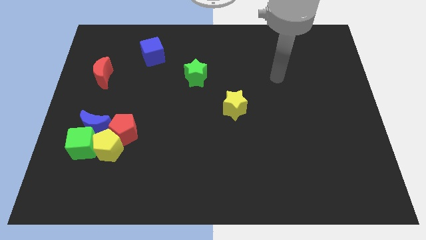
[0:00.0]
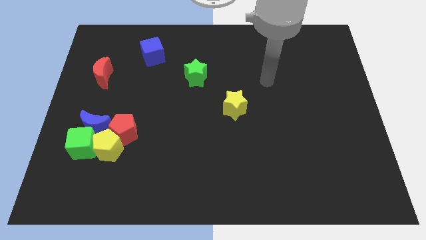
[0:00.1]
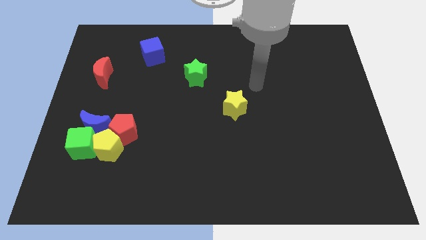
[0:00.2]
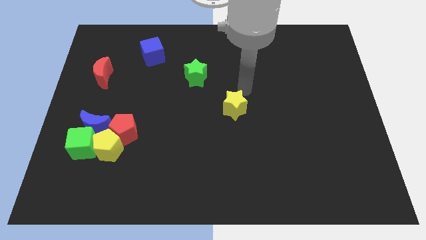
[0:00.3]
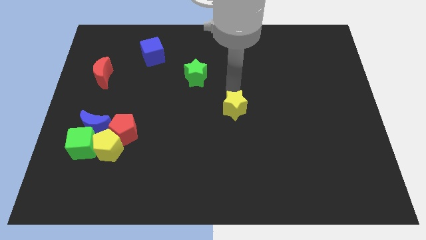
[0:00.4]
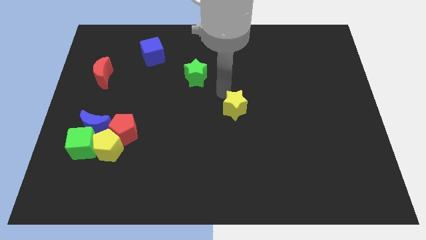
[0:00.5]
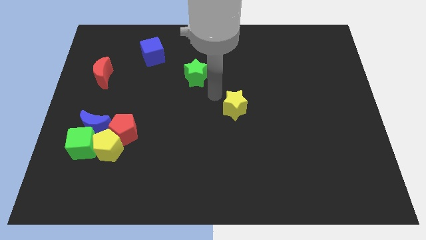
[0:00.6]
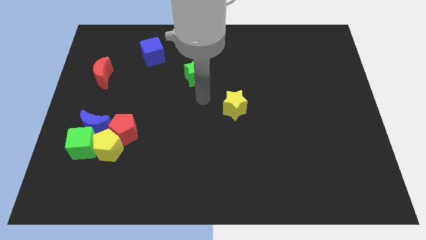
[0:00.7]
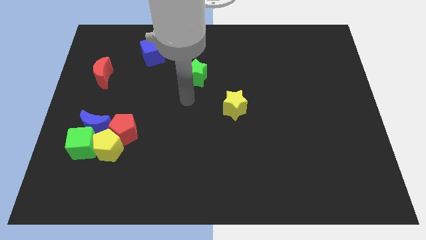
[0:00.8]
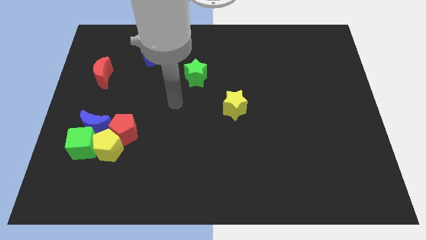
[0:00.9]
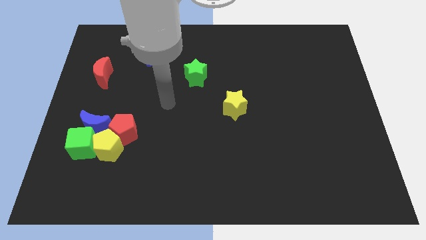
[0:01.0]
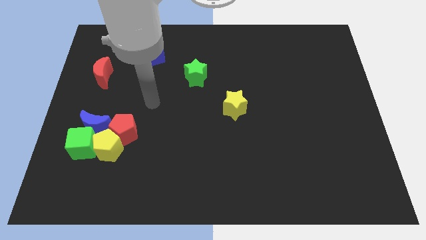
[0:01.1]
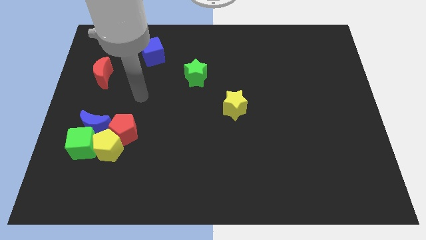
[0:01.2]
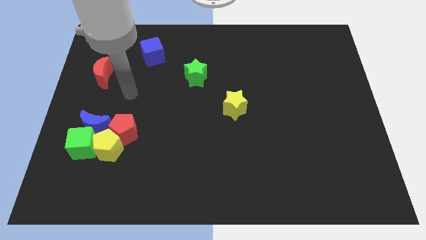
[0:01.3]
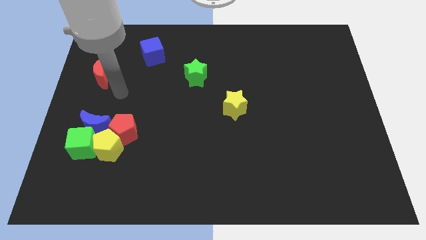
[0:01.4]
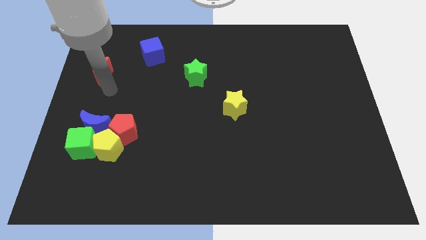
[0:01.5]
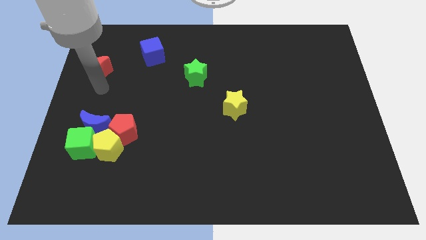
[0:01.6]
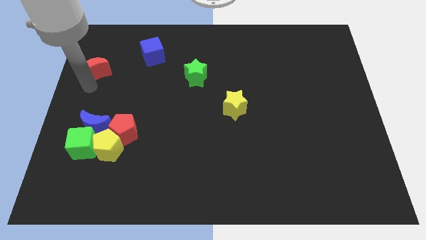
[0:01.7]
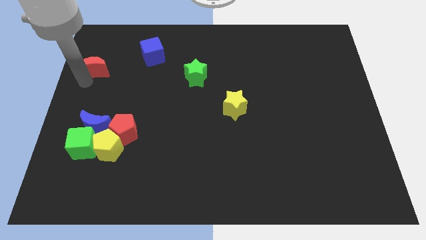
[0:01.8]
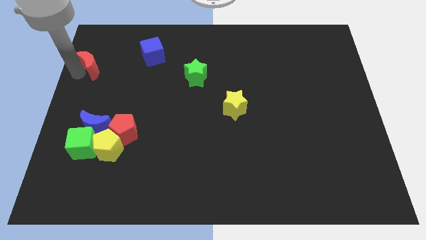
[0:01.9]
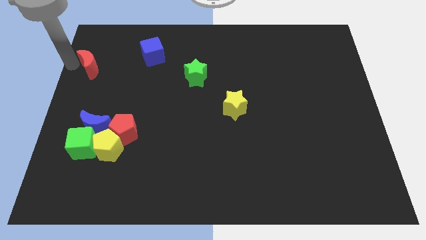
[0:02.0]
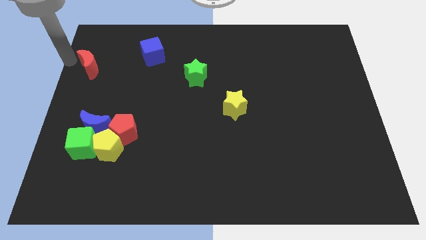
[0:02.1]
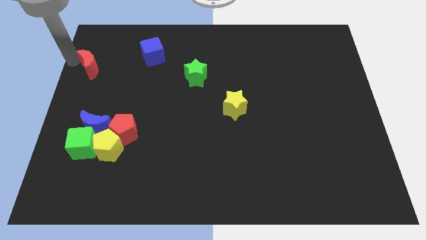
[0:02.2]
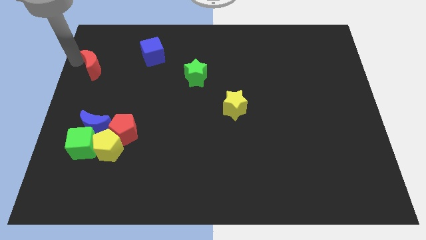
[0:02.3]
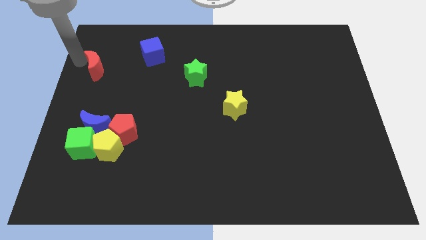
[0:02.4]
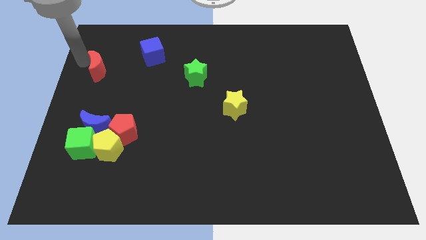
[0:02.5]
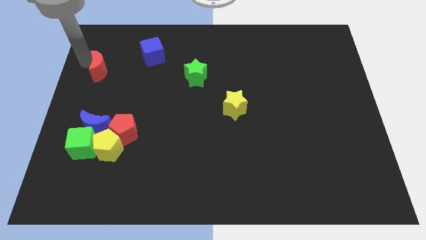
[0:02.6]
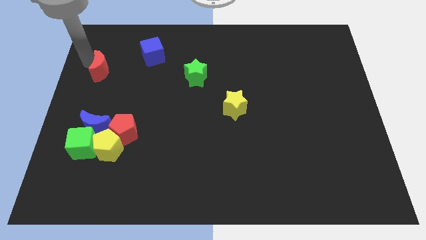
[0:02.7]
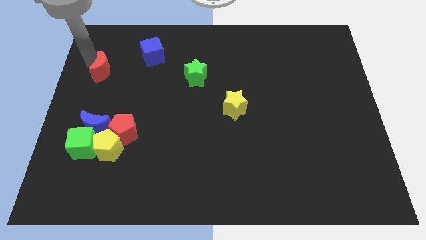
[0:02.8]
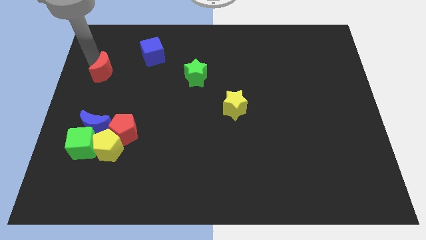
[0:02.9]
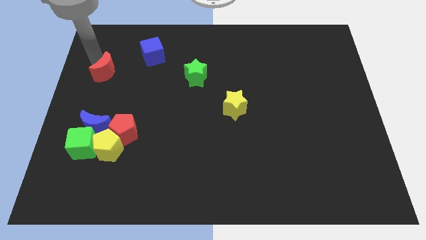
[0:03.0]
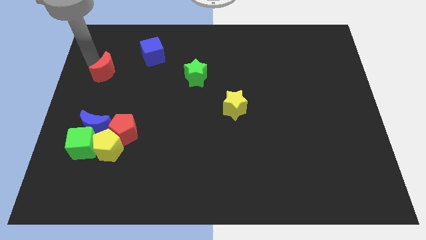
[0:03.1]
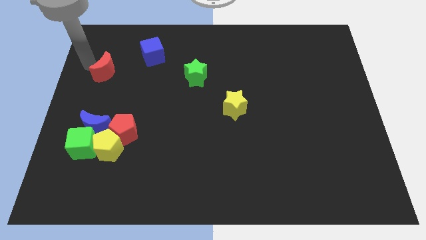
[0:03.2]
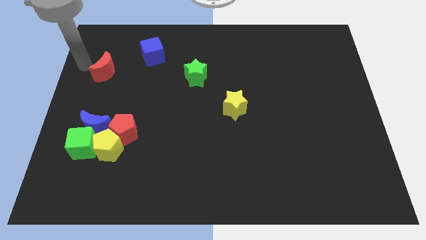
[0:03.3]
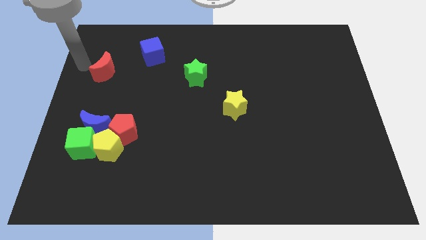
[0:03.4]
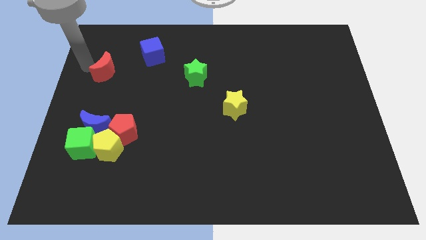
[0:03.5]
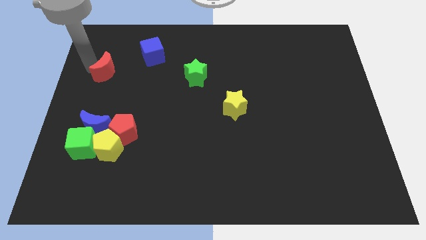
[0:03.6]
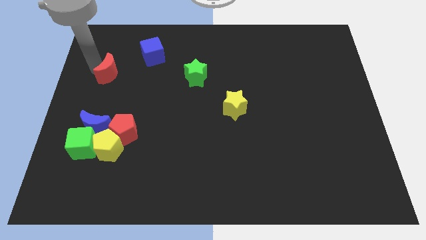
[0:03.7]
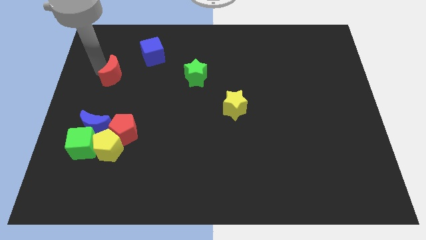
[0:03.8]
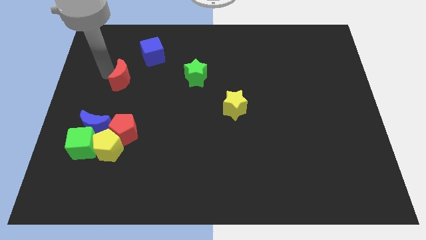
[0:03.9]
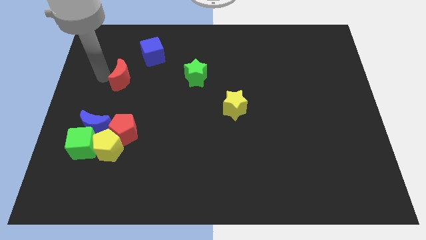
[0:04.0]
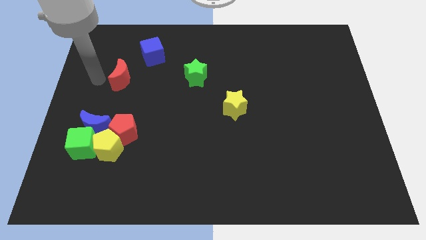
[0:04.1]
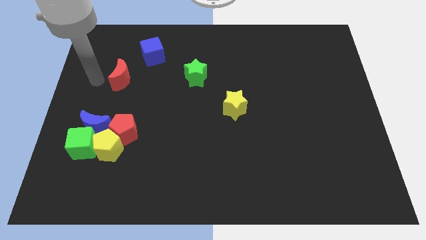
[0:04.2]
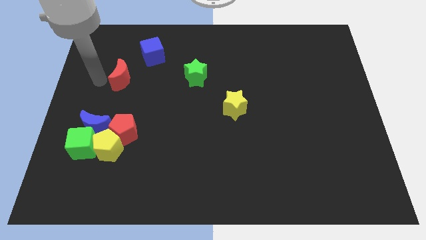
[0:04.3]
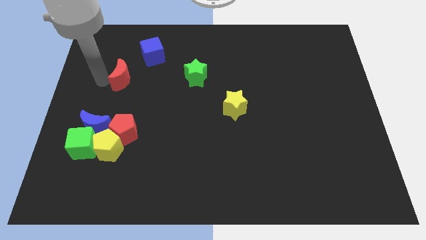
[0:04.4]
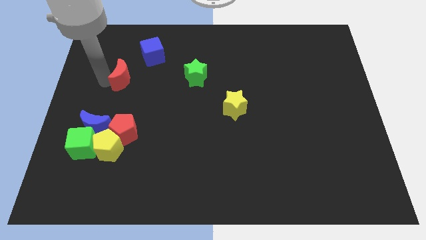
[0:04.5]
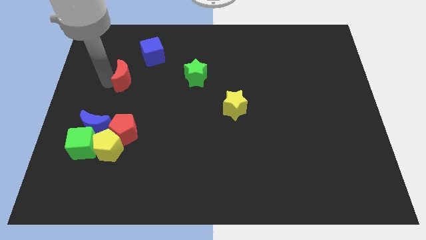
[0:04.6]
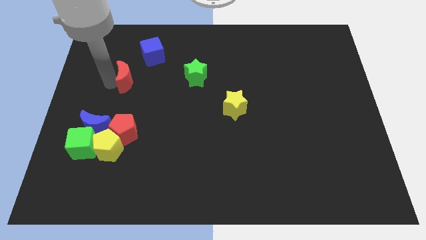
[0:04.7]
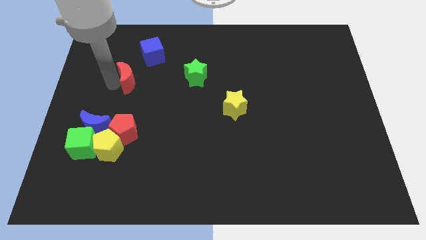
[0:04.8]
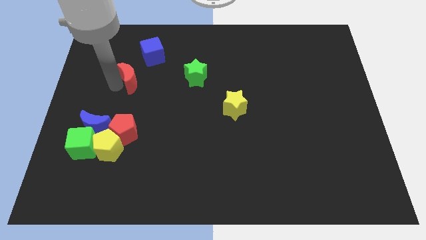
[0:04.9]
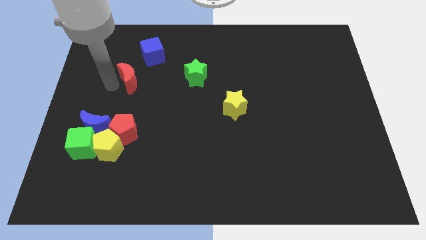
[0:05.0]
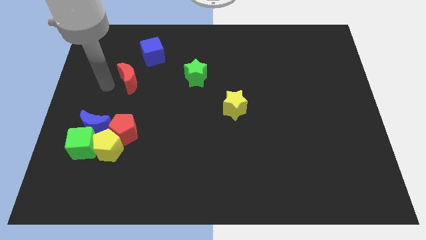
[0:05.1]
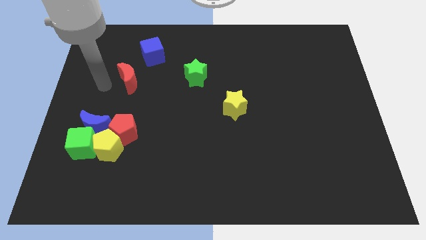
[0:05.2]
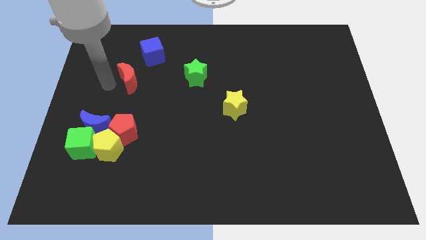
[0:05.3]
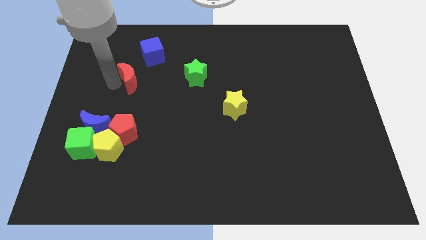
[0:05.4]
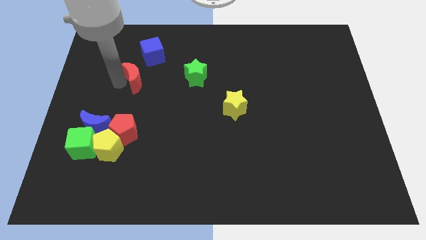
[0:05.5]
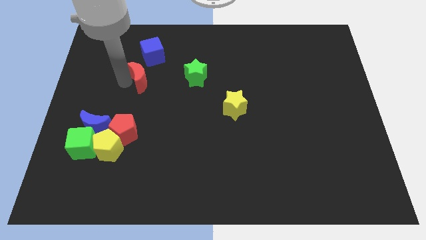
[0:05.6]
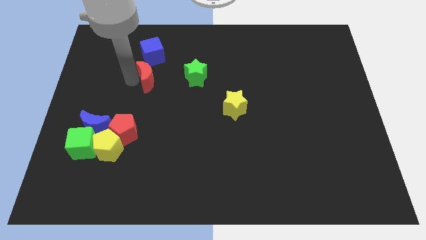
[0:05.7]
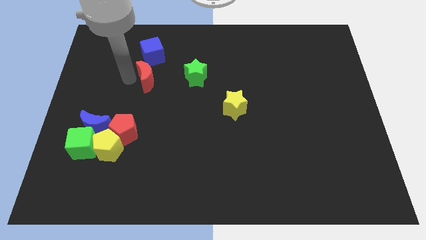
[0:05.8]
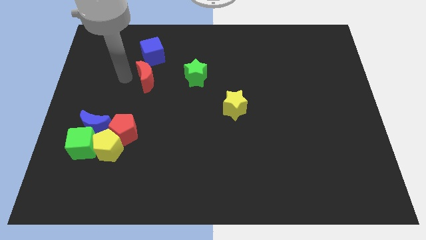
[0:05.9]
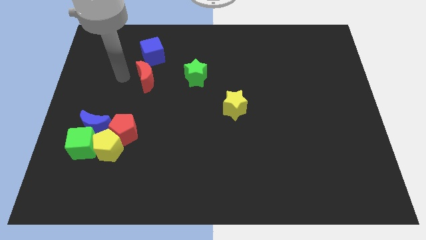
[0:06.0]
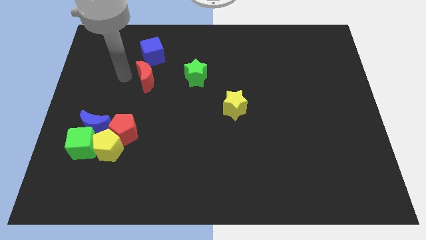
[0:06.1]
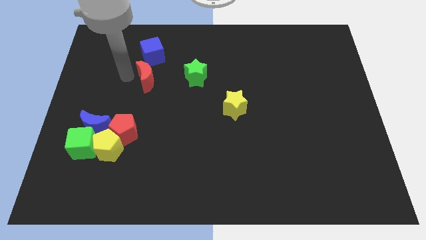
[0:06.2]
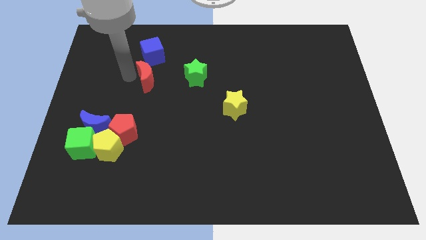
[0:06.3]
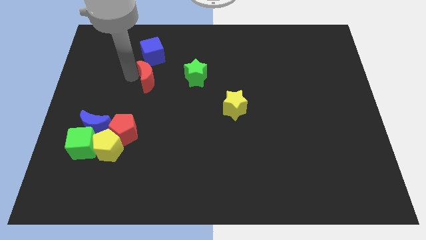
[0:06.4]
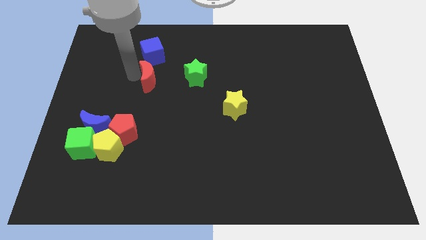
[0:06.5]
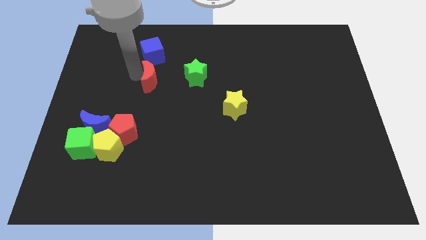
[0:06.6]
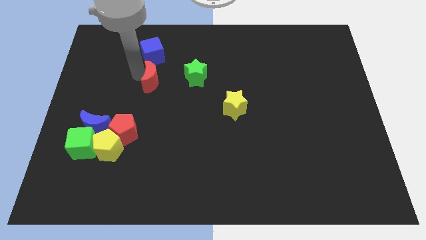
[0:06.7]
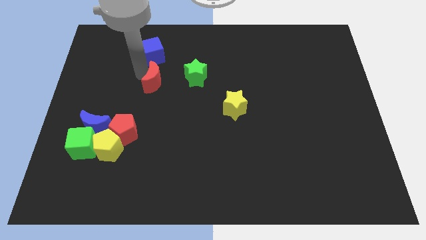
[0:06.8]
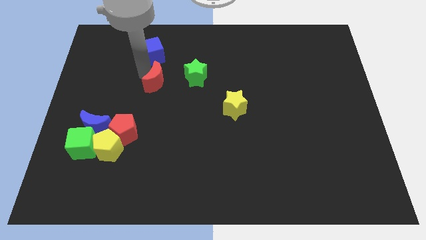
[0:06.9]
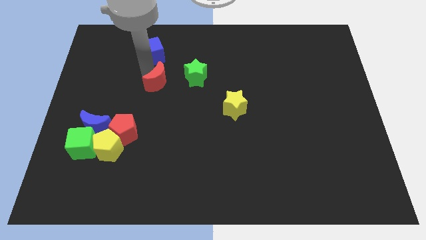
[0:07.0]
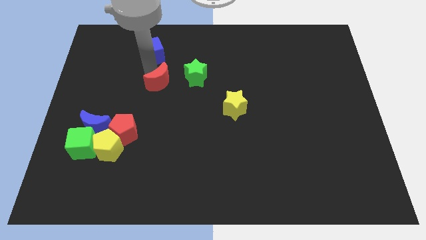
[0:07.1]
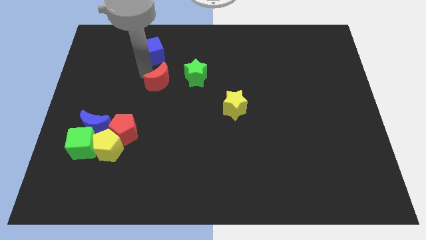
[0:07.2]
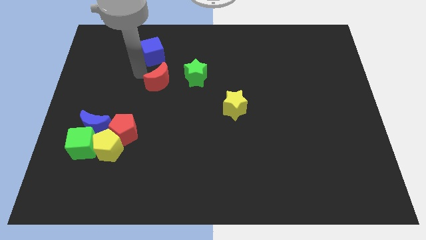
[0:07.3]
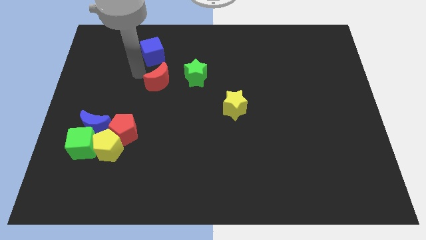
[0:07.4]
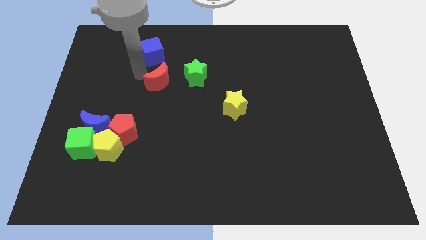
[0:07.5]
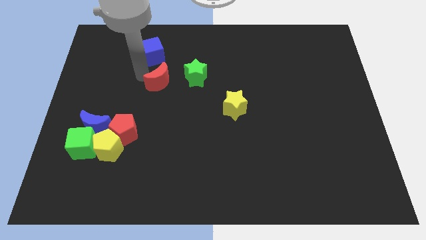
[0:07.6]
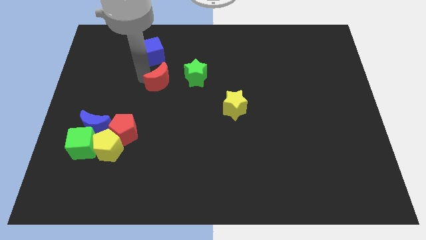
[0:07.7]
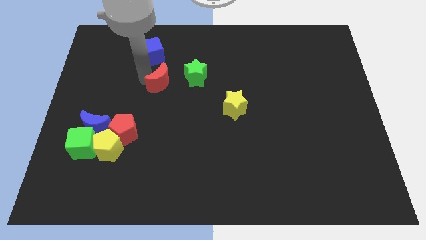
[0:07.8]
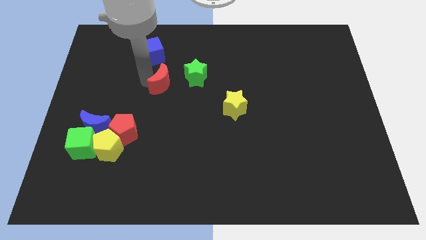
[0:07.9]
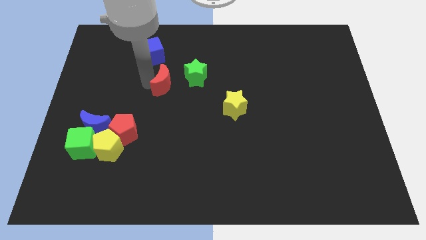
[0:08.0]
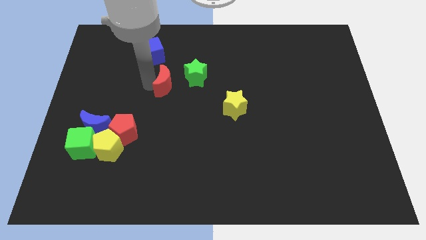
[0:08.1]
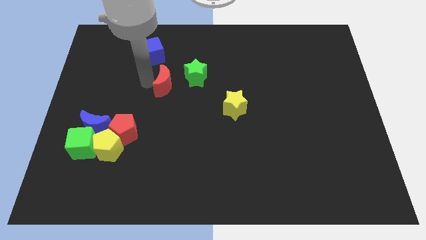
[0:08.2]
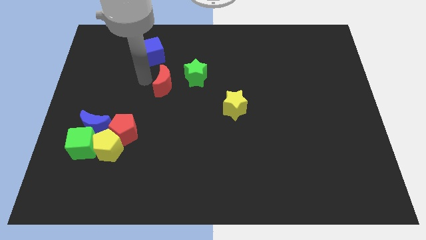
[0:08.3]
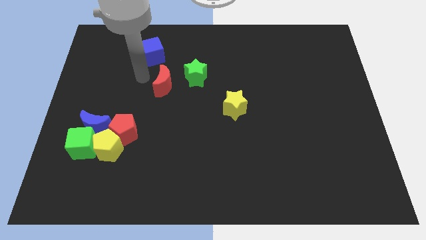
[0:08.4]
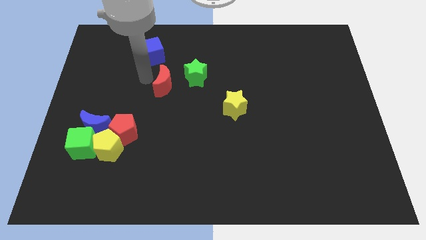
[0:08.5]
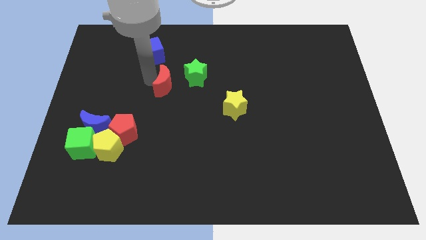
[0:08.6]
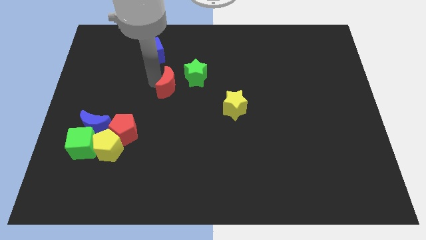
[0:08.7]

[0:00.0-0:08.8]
push the red moon to the middle
